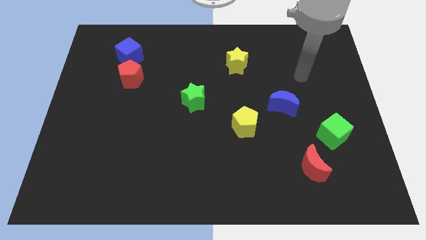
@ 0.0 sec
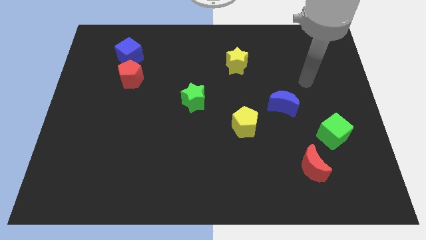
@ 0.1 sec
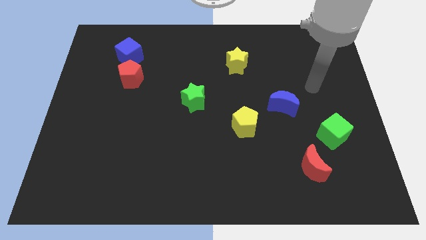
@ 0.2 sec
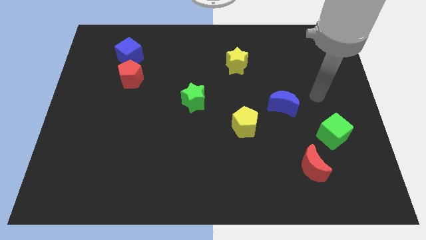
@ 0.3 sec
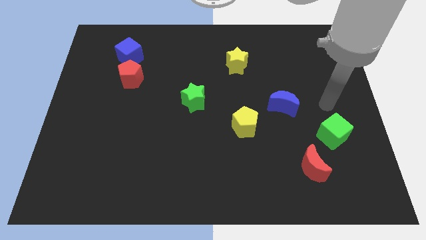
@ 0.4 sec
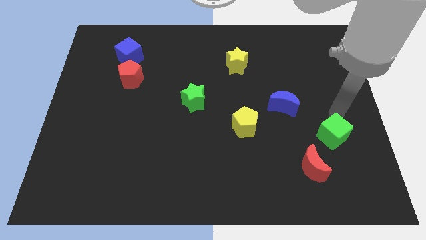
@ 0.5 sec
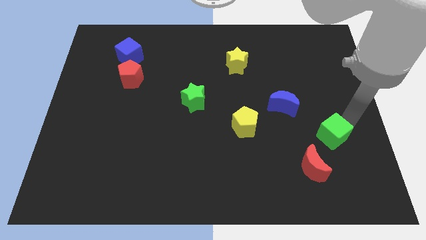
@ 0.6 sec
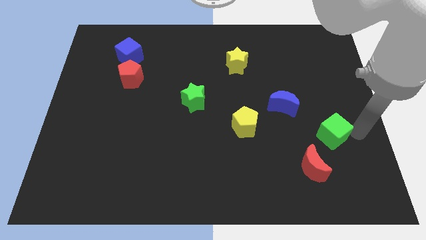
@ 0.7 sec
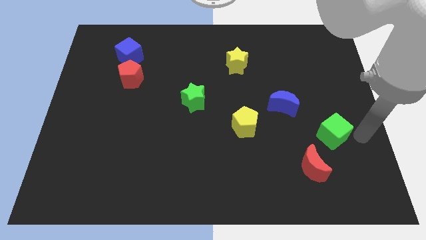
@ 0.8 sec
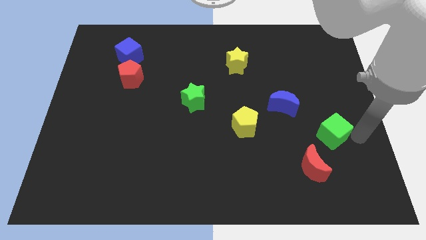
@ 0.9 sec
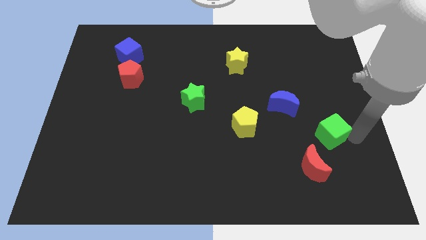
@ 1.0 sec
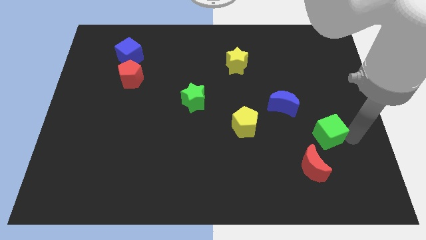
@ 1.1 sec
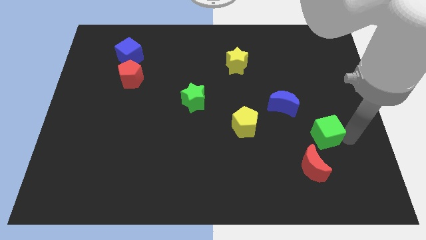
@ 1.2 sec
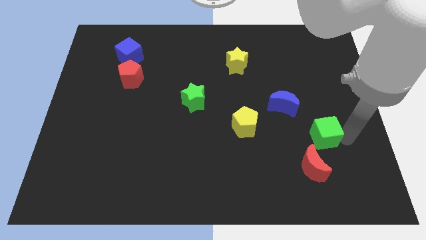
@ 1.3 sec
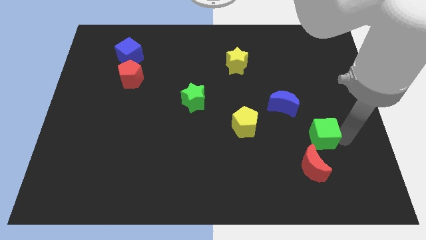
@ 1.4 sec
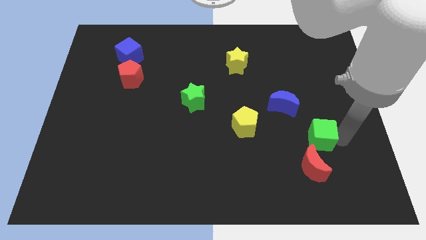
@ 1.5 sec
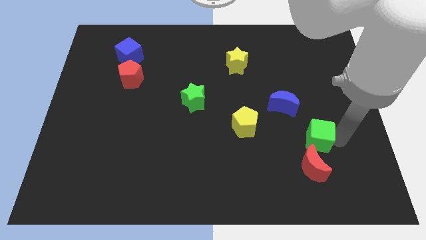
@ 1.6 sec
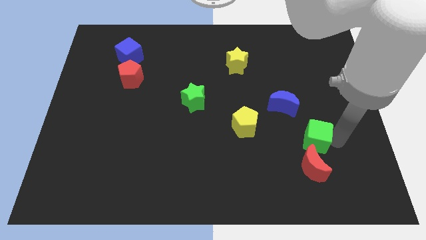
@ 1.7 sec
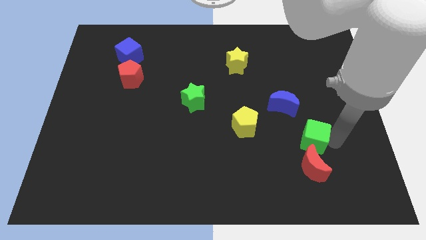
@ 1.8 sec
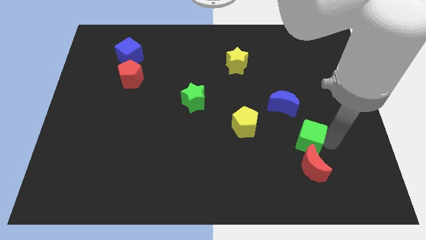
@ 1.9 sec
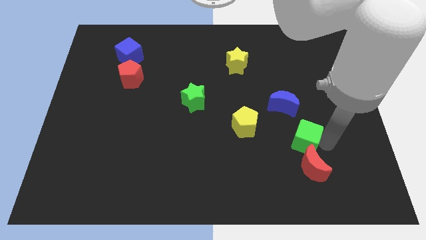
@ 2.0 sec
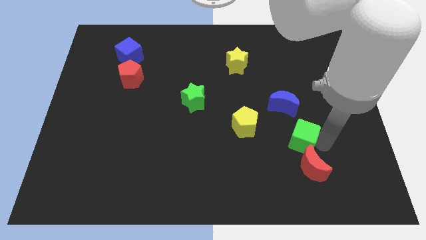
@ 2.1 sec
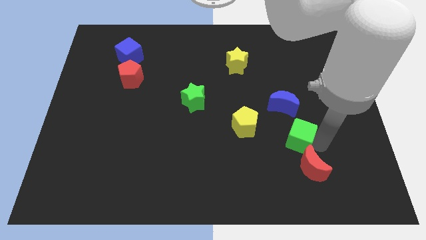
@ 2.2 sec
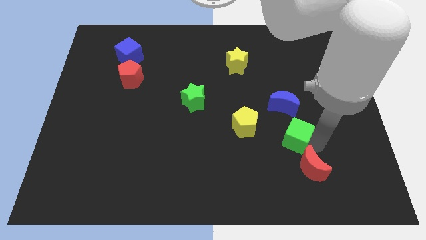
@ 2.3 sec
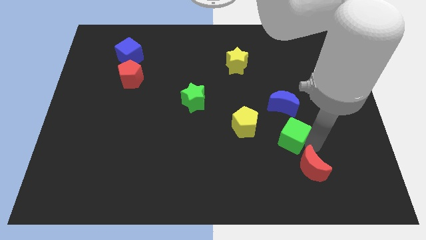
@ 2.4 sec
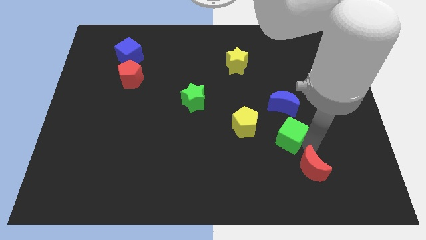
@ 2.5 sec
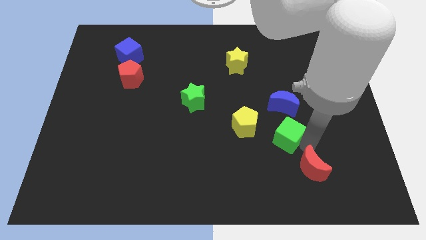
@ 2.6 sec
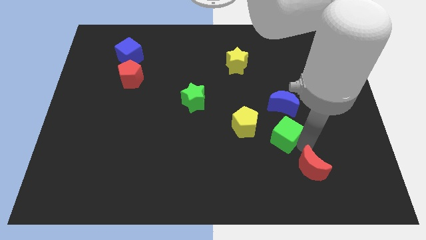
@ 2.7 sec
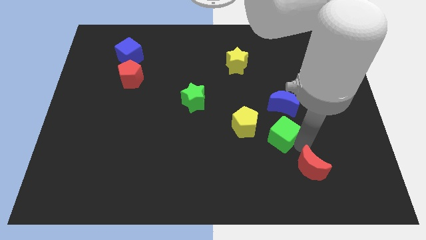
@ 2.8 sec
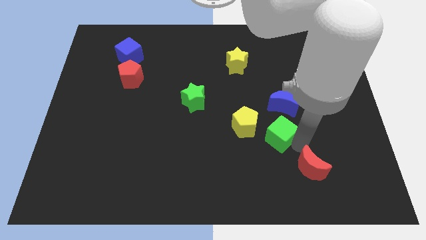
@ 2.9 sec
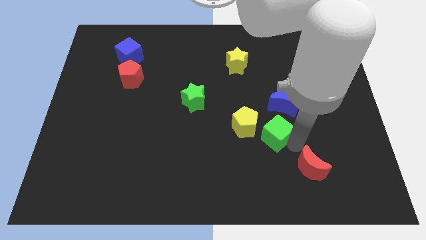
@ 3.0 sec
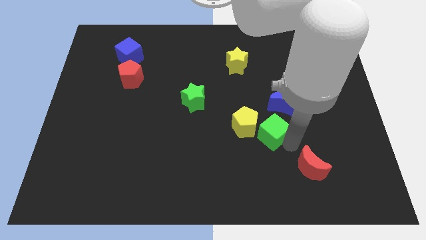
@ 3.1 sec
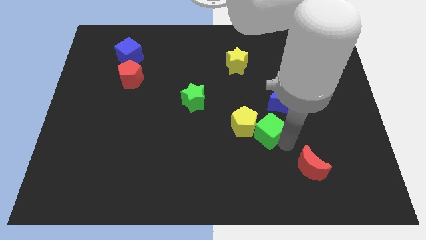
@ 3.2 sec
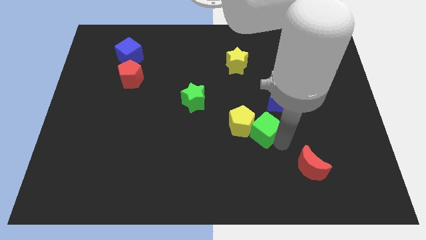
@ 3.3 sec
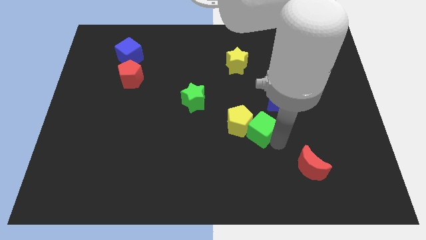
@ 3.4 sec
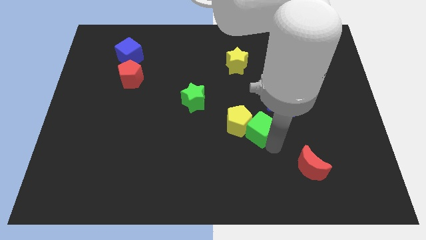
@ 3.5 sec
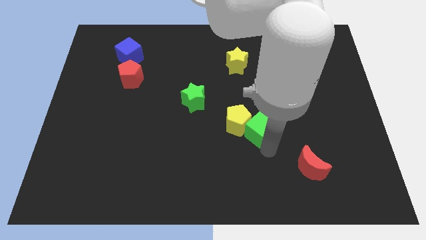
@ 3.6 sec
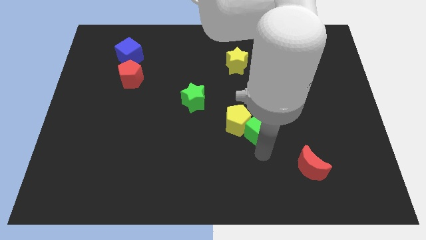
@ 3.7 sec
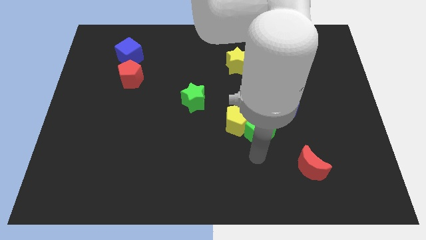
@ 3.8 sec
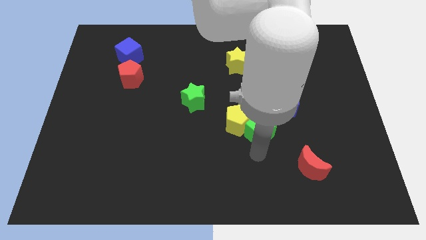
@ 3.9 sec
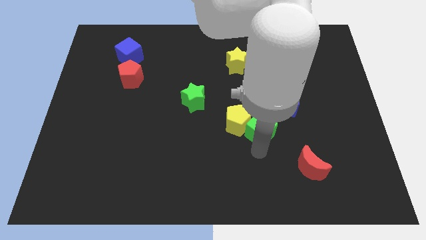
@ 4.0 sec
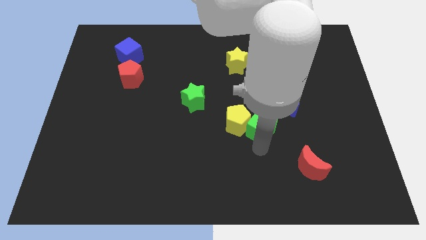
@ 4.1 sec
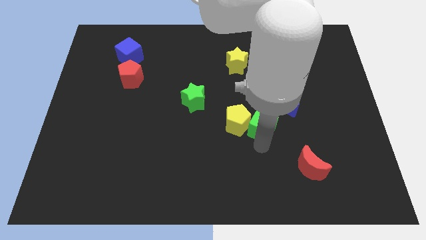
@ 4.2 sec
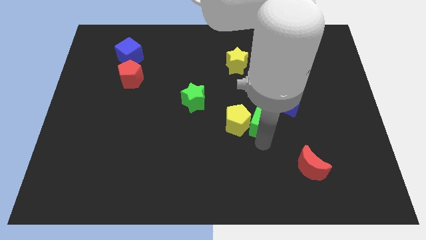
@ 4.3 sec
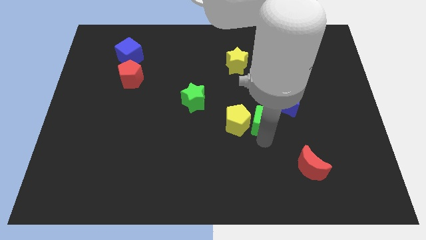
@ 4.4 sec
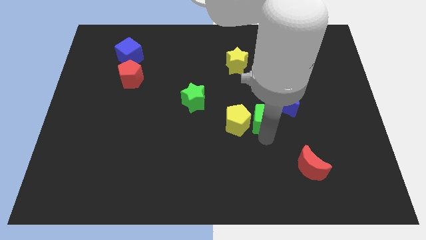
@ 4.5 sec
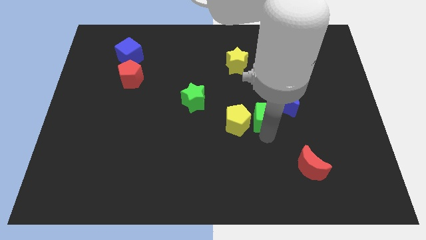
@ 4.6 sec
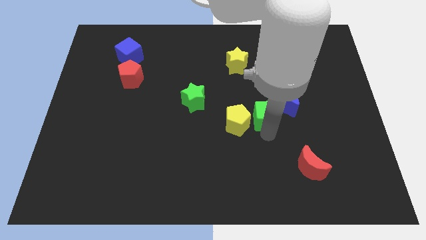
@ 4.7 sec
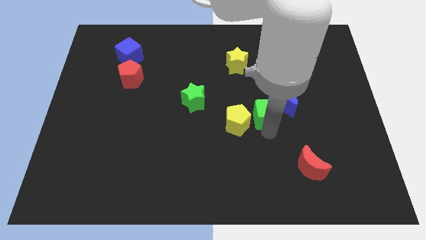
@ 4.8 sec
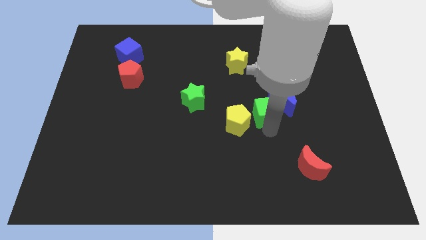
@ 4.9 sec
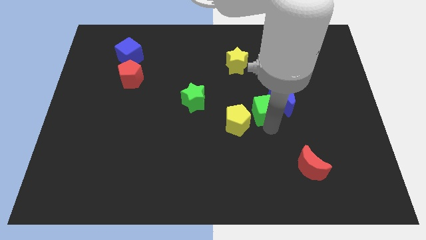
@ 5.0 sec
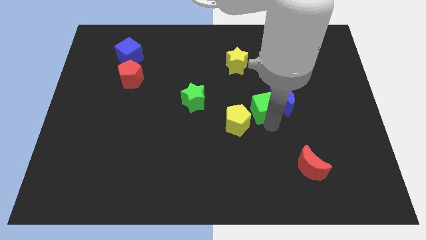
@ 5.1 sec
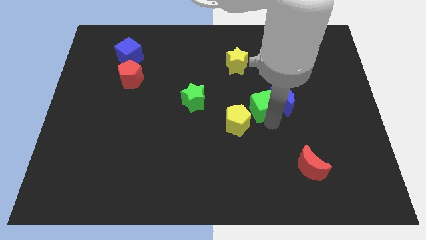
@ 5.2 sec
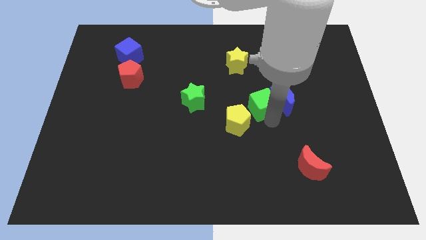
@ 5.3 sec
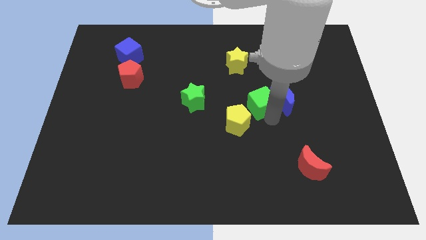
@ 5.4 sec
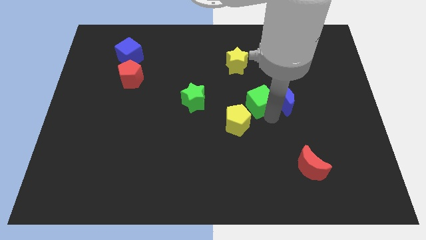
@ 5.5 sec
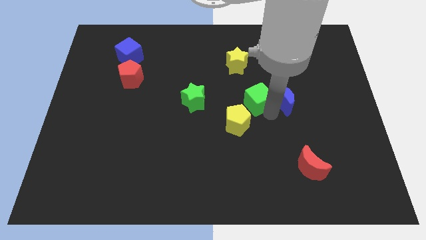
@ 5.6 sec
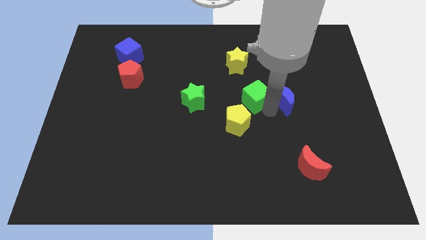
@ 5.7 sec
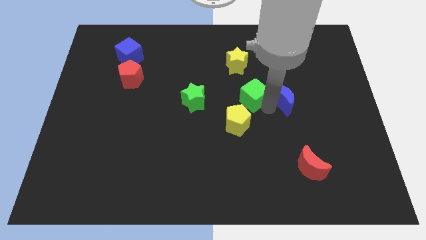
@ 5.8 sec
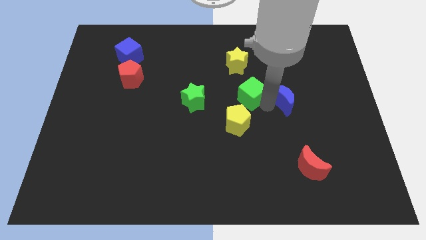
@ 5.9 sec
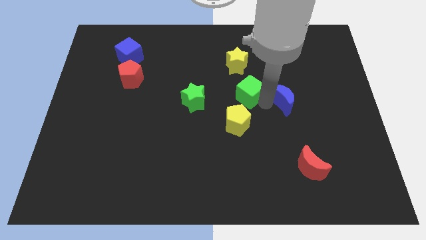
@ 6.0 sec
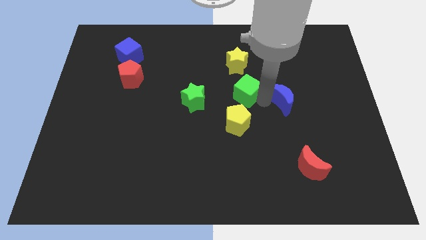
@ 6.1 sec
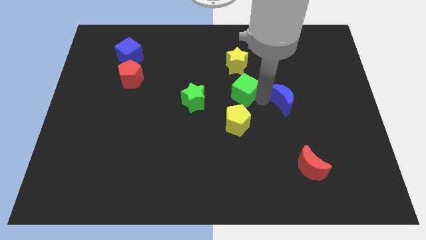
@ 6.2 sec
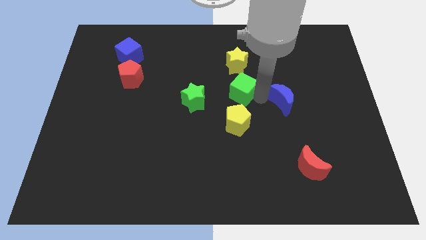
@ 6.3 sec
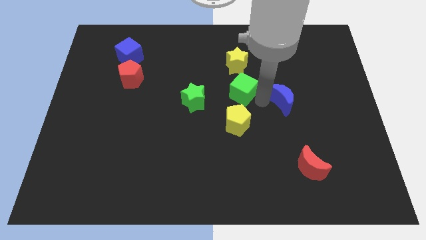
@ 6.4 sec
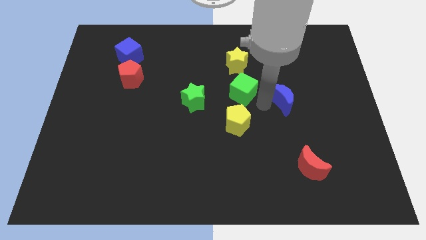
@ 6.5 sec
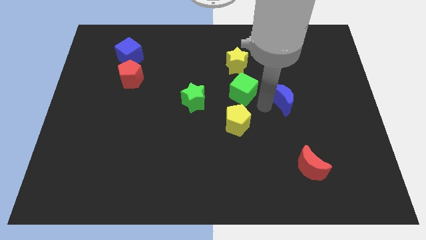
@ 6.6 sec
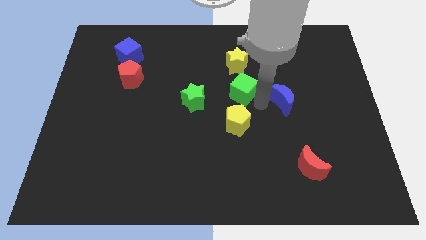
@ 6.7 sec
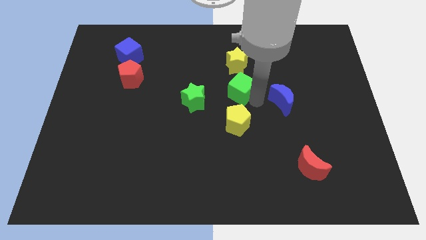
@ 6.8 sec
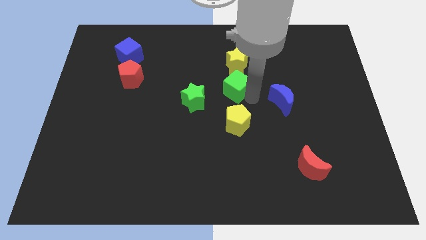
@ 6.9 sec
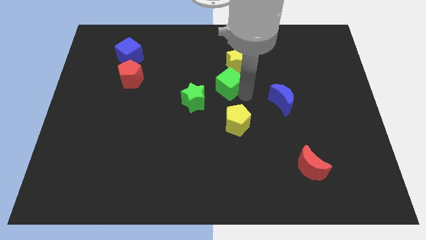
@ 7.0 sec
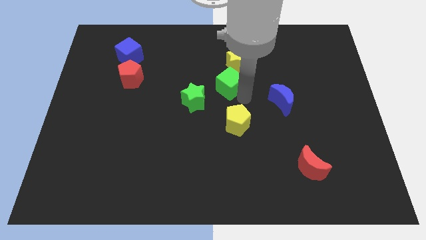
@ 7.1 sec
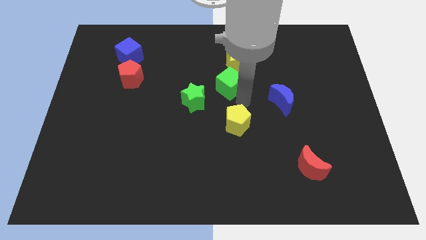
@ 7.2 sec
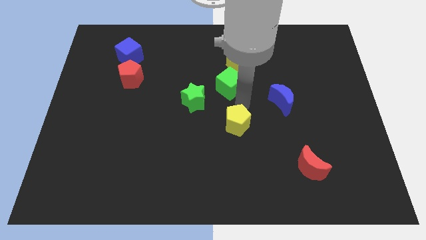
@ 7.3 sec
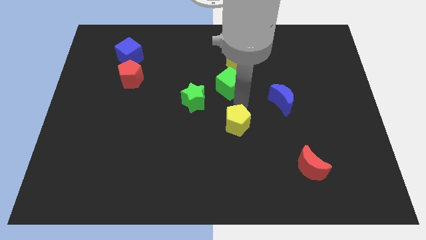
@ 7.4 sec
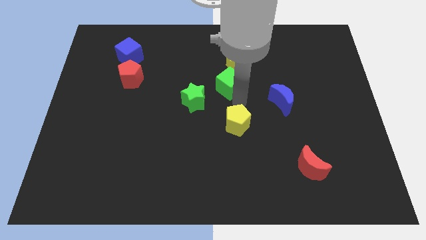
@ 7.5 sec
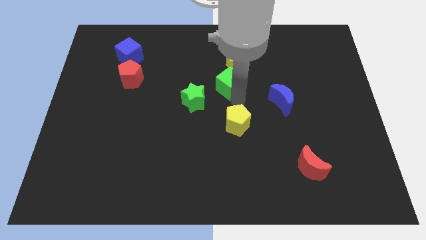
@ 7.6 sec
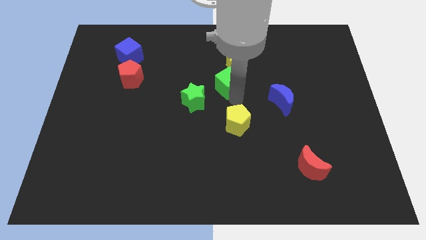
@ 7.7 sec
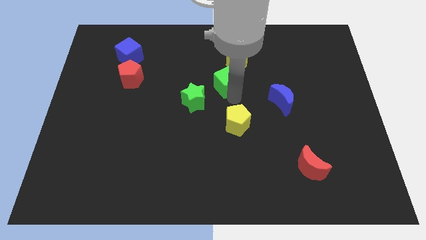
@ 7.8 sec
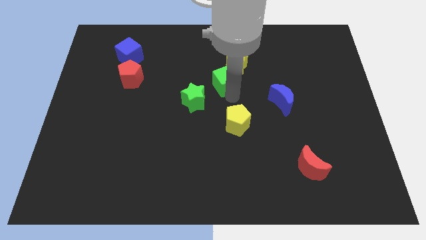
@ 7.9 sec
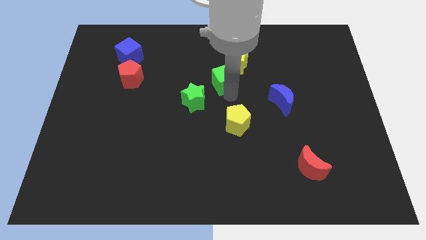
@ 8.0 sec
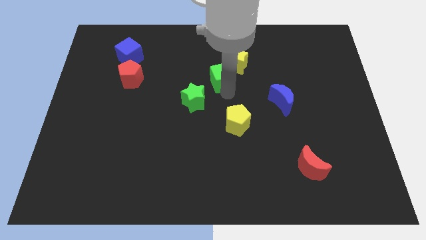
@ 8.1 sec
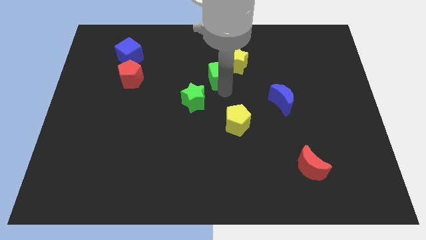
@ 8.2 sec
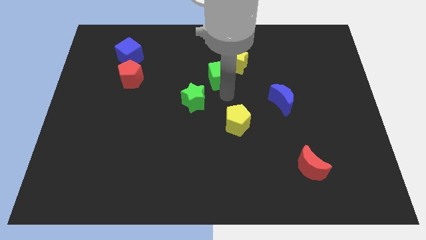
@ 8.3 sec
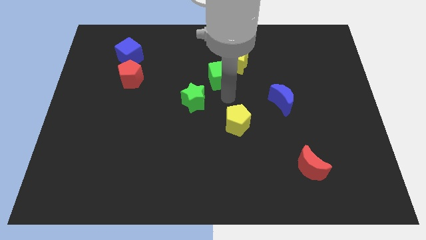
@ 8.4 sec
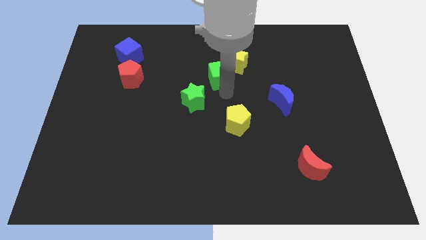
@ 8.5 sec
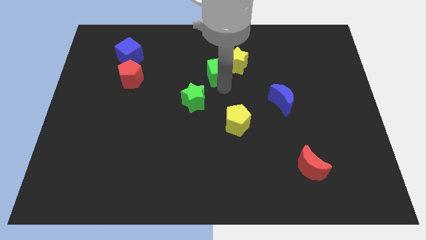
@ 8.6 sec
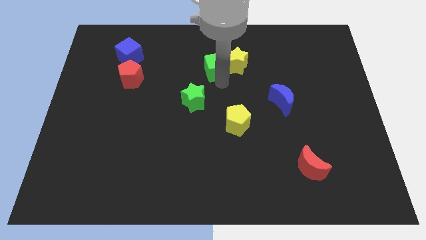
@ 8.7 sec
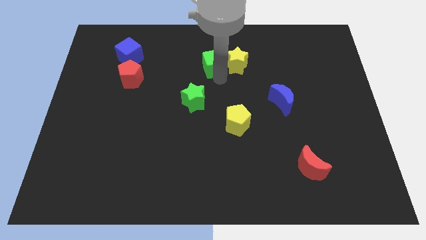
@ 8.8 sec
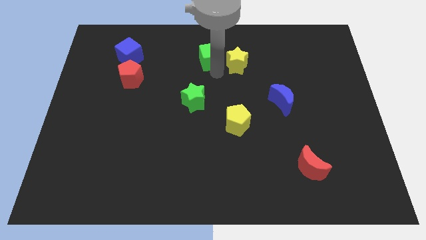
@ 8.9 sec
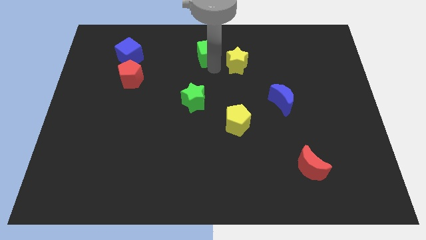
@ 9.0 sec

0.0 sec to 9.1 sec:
put the green cube to the top side
